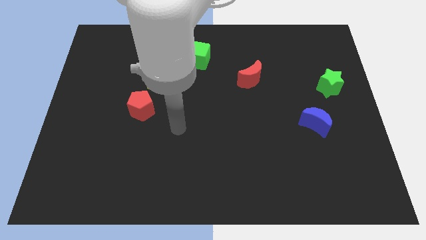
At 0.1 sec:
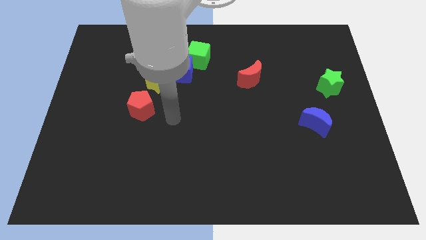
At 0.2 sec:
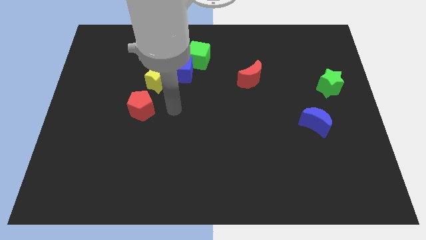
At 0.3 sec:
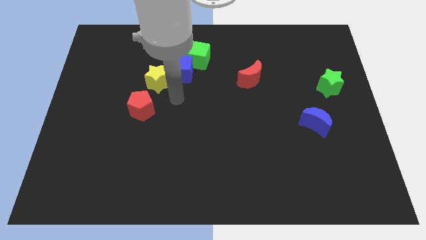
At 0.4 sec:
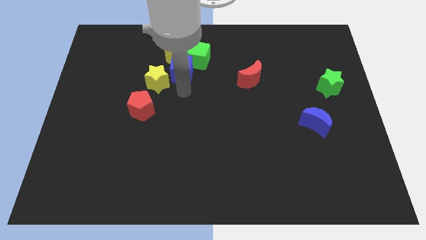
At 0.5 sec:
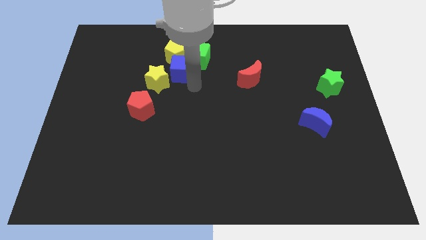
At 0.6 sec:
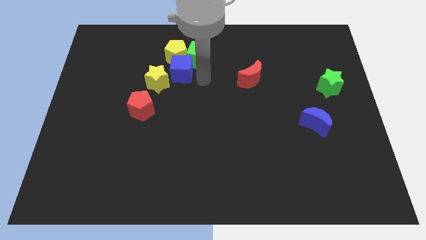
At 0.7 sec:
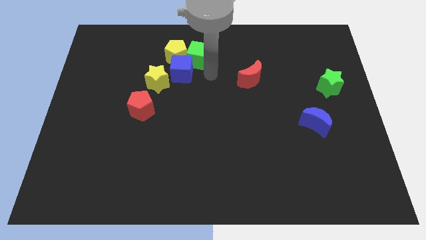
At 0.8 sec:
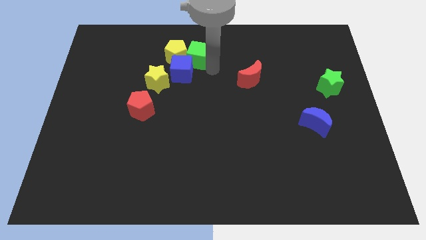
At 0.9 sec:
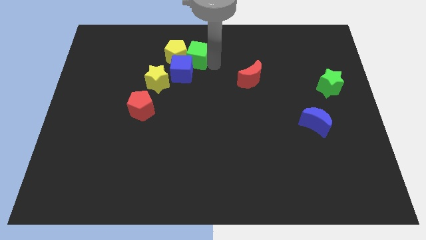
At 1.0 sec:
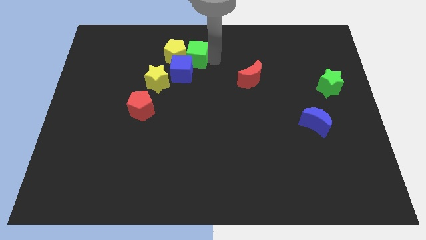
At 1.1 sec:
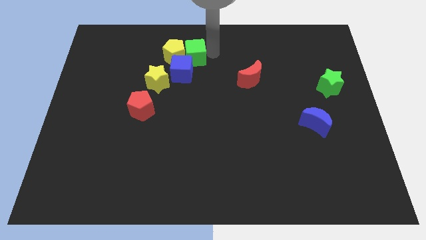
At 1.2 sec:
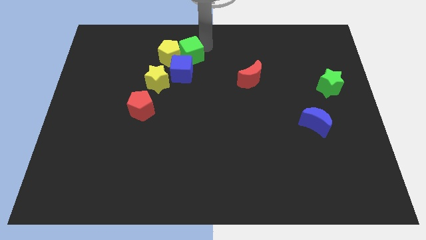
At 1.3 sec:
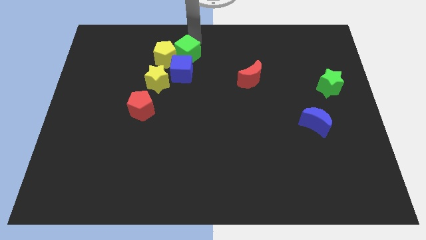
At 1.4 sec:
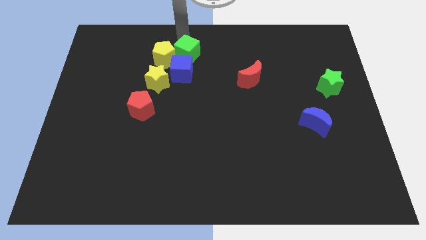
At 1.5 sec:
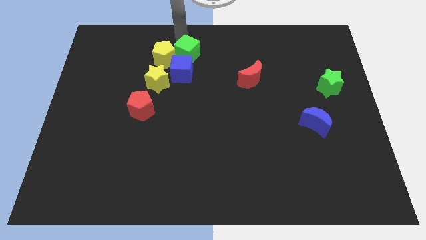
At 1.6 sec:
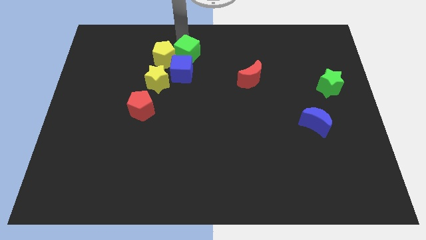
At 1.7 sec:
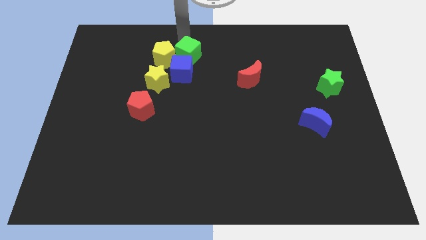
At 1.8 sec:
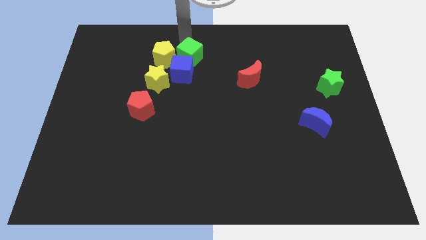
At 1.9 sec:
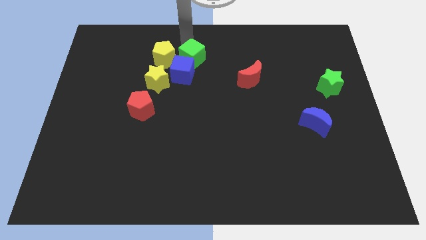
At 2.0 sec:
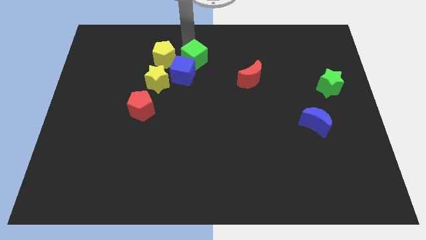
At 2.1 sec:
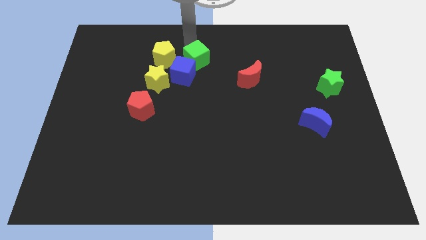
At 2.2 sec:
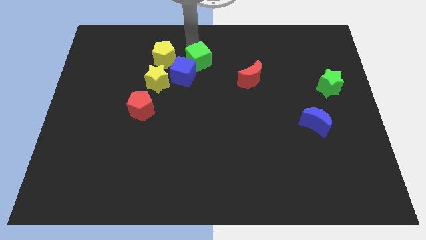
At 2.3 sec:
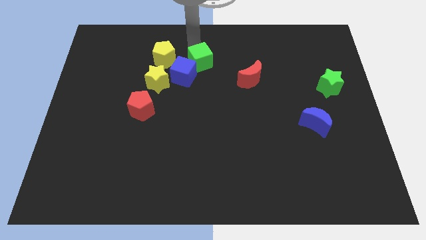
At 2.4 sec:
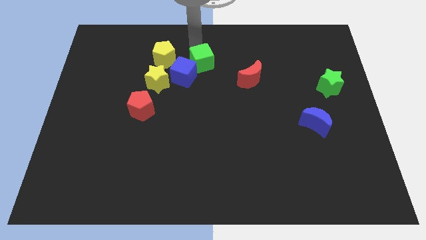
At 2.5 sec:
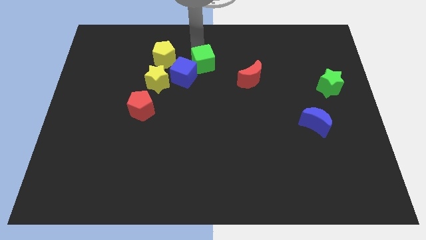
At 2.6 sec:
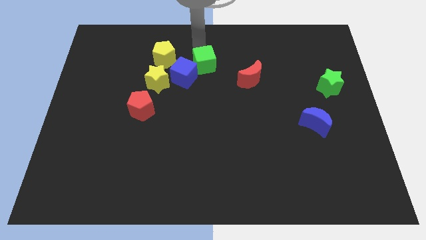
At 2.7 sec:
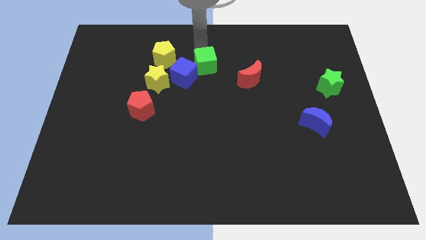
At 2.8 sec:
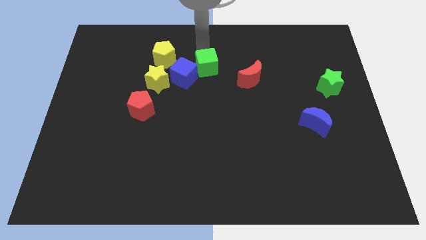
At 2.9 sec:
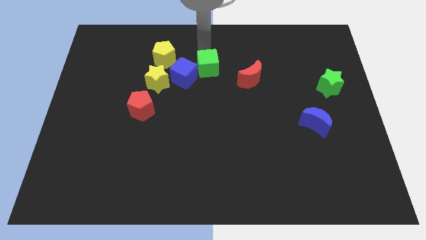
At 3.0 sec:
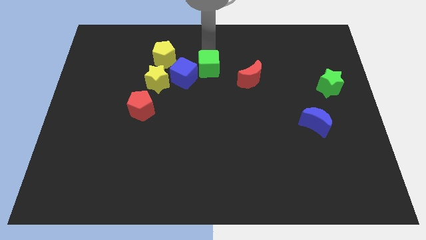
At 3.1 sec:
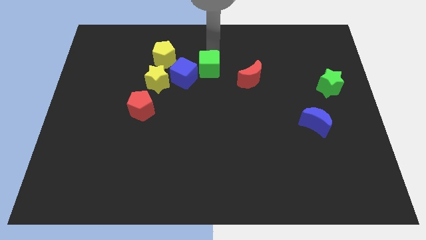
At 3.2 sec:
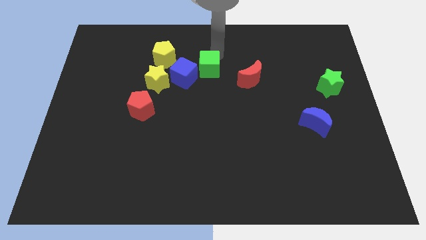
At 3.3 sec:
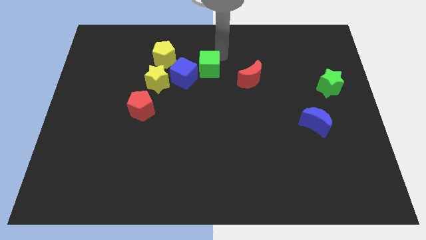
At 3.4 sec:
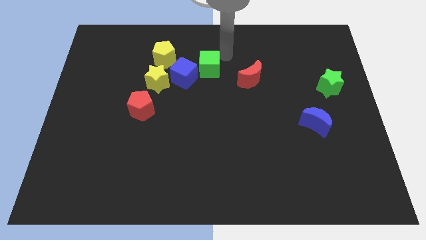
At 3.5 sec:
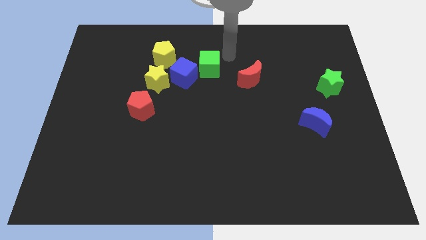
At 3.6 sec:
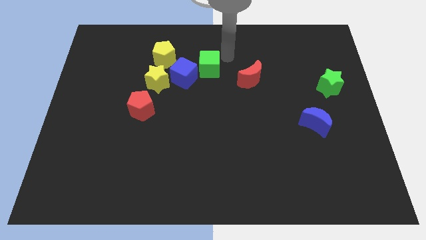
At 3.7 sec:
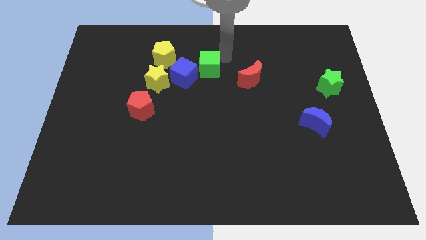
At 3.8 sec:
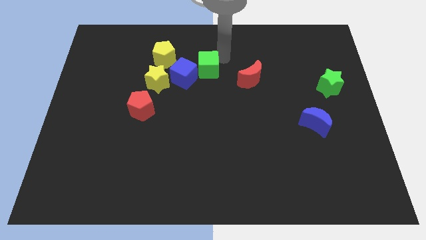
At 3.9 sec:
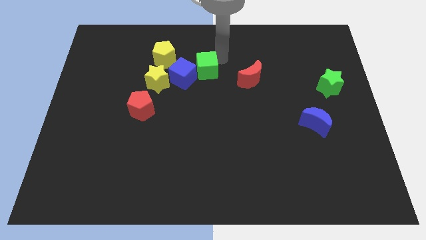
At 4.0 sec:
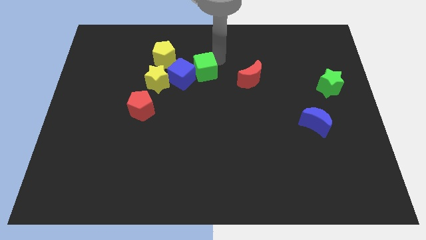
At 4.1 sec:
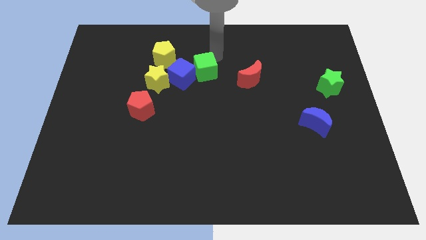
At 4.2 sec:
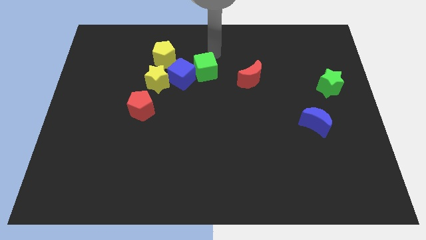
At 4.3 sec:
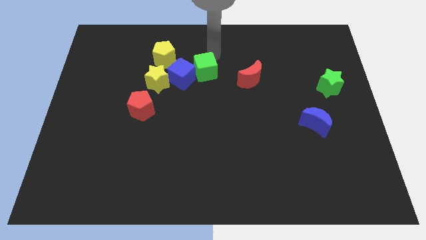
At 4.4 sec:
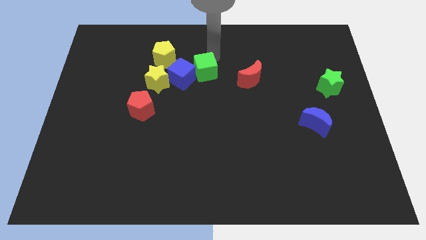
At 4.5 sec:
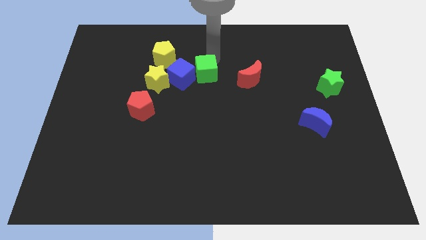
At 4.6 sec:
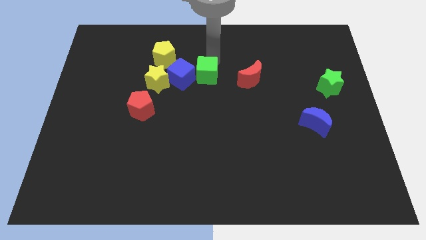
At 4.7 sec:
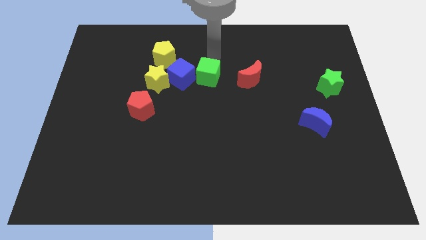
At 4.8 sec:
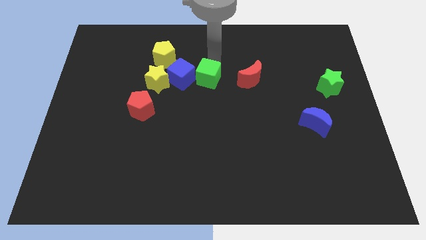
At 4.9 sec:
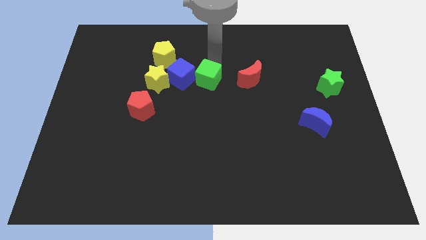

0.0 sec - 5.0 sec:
move the green cube a little bit downwards

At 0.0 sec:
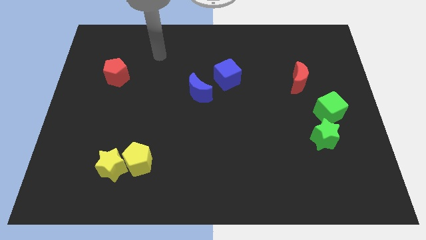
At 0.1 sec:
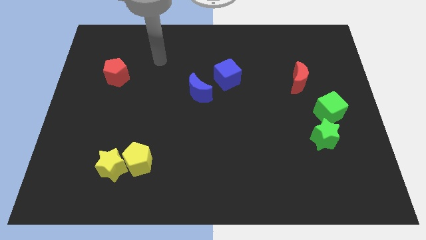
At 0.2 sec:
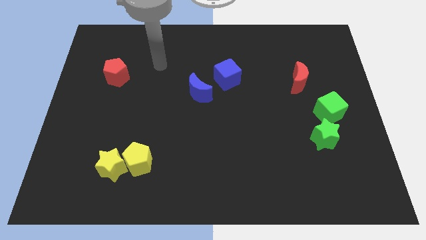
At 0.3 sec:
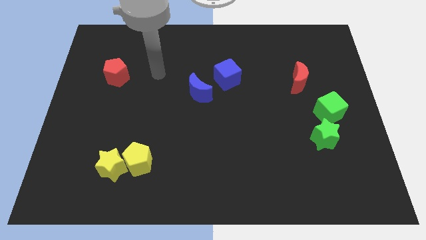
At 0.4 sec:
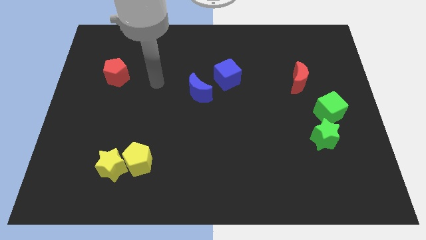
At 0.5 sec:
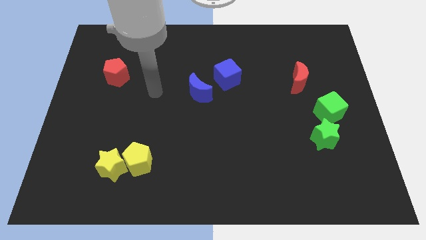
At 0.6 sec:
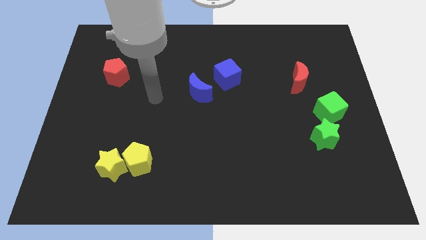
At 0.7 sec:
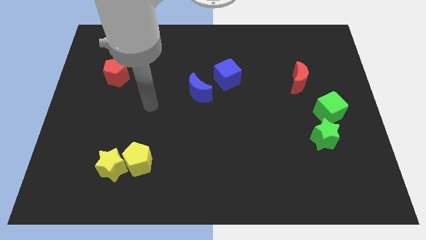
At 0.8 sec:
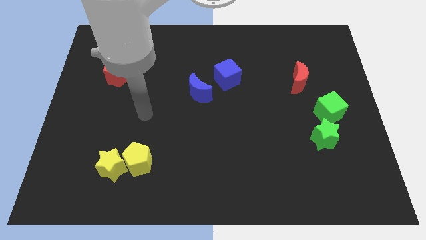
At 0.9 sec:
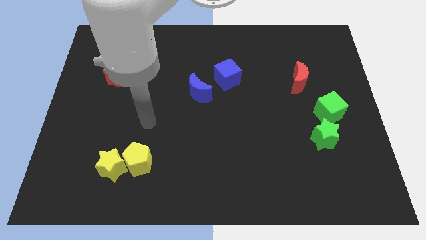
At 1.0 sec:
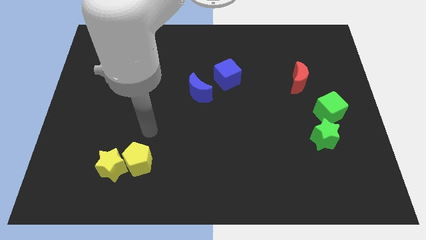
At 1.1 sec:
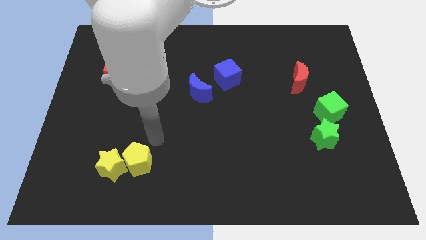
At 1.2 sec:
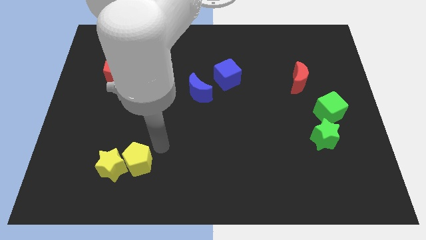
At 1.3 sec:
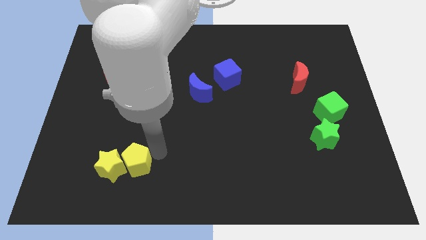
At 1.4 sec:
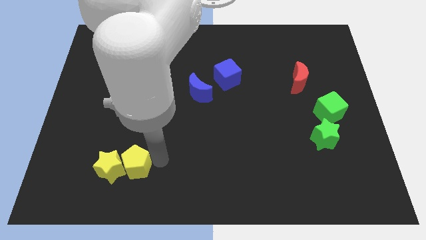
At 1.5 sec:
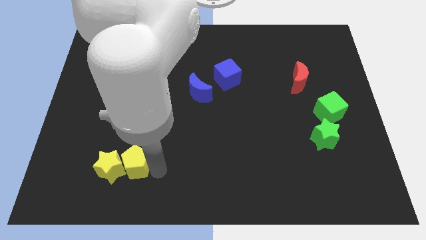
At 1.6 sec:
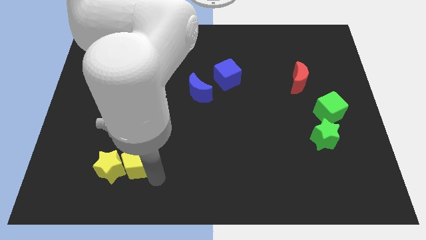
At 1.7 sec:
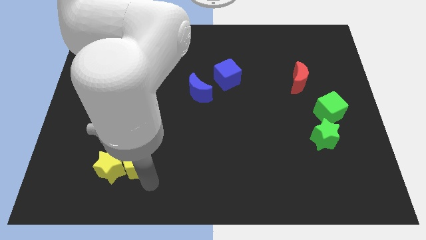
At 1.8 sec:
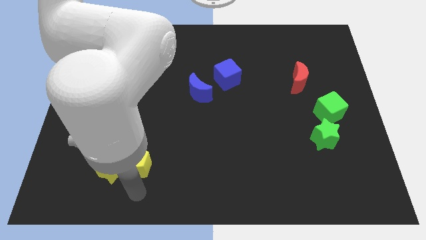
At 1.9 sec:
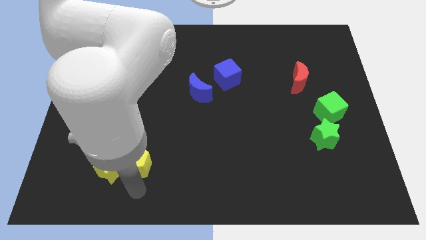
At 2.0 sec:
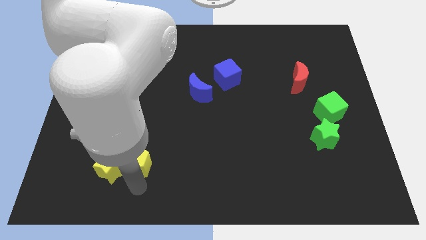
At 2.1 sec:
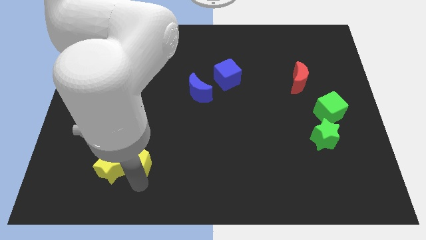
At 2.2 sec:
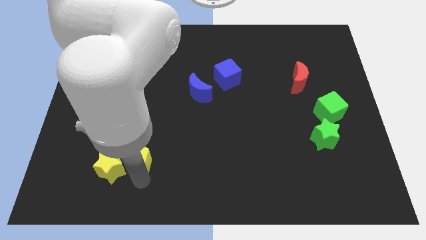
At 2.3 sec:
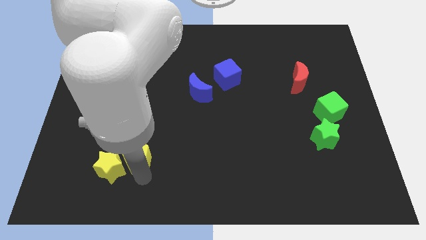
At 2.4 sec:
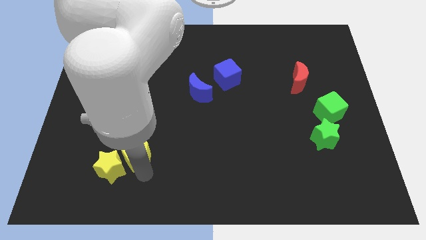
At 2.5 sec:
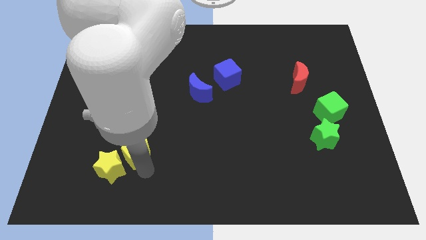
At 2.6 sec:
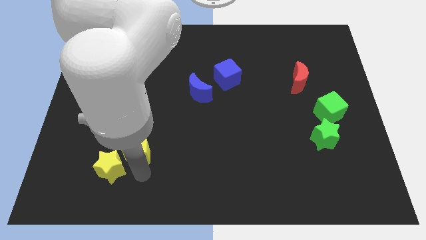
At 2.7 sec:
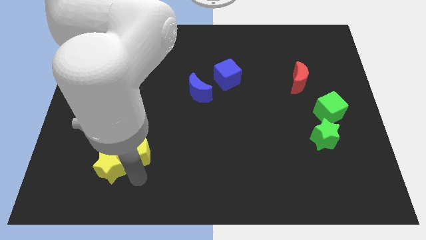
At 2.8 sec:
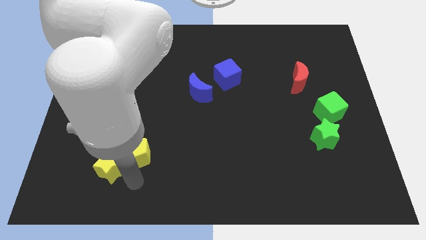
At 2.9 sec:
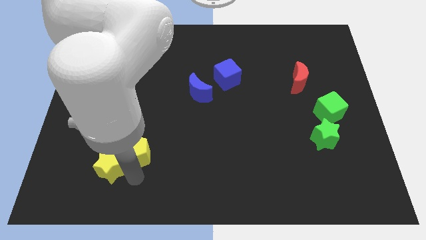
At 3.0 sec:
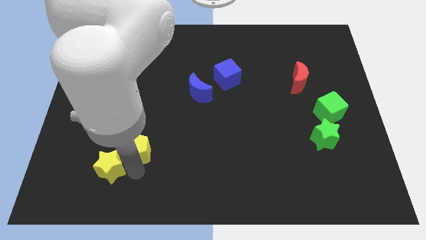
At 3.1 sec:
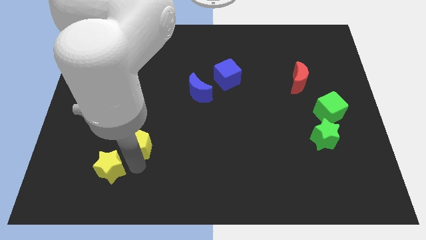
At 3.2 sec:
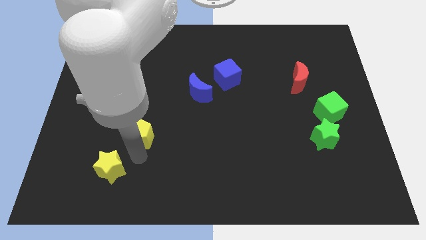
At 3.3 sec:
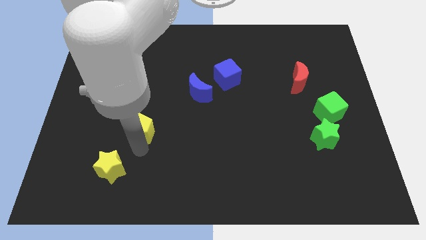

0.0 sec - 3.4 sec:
move the yellow pentagon upwards a little
